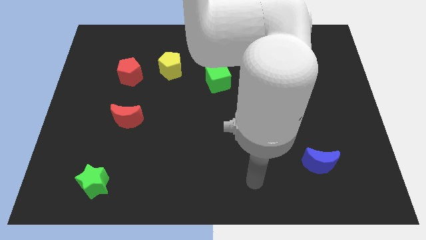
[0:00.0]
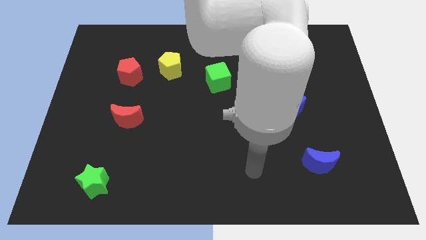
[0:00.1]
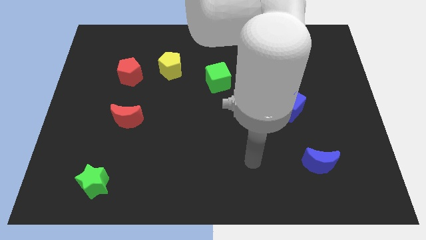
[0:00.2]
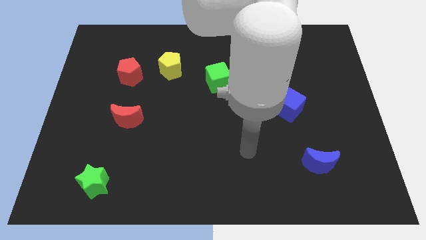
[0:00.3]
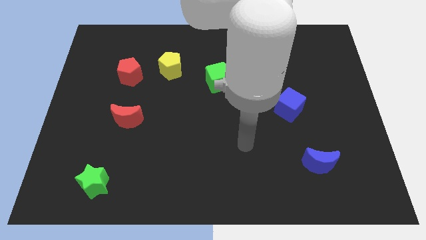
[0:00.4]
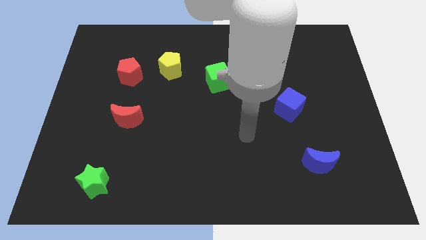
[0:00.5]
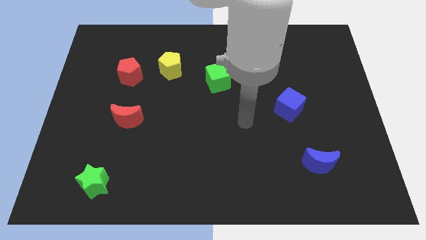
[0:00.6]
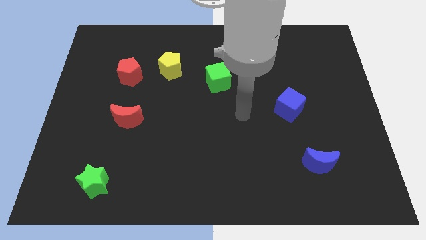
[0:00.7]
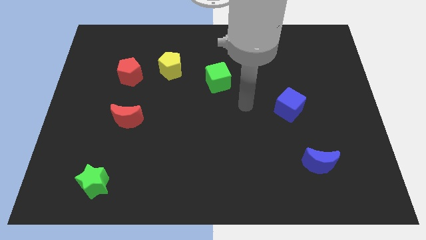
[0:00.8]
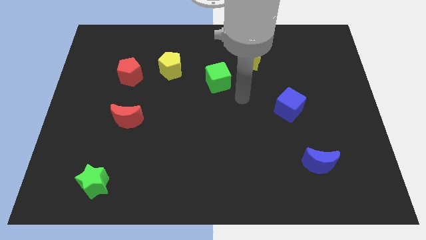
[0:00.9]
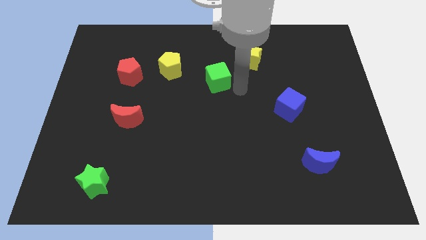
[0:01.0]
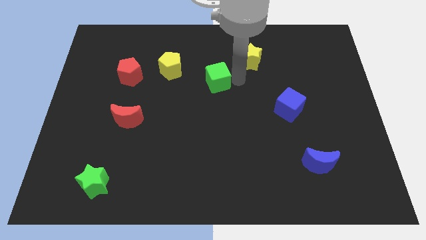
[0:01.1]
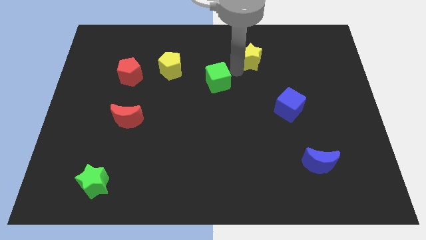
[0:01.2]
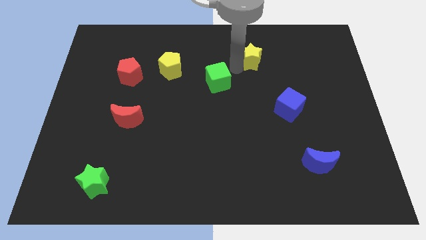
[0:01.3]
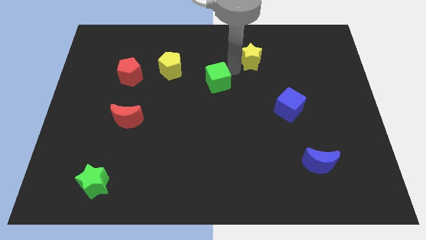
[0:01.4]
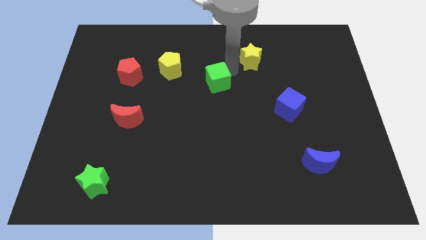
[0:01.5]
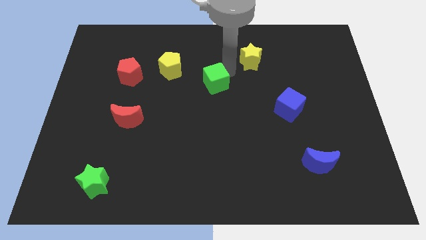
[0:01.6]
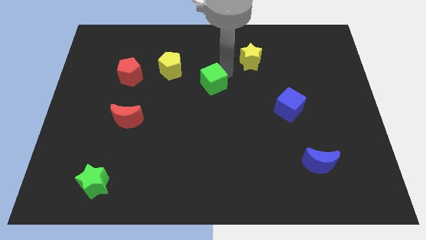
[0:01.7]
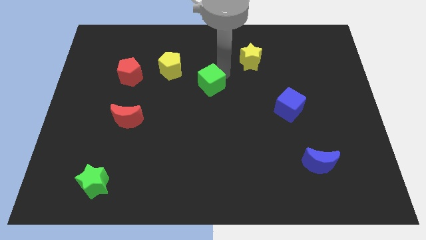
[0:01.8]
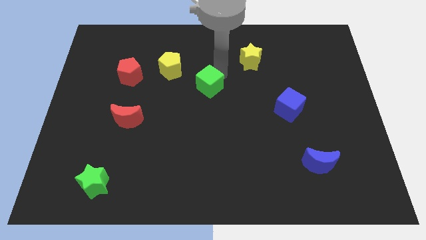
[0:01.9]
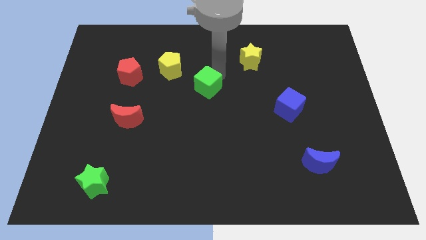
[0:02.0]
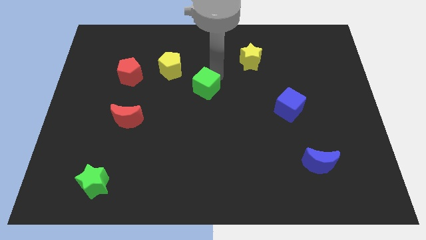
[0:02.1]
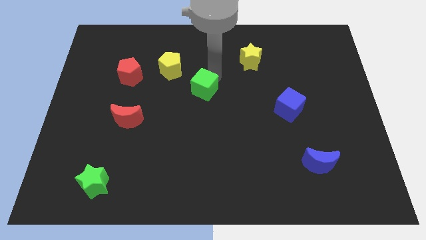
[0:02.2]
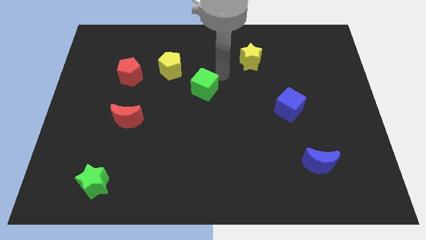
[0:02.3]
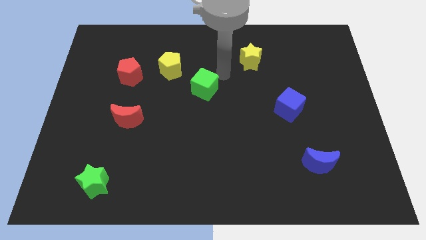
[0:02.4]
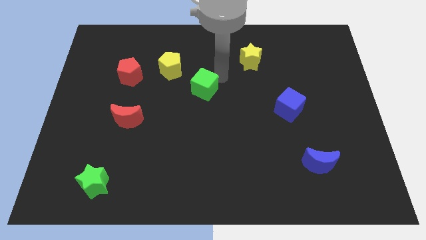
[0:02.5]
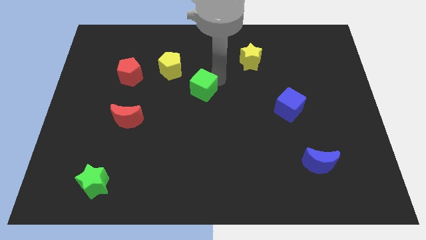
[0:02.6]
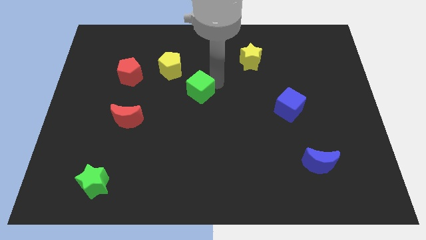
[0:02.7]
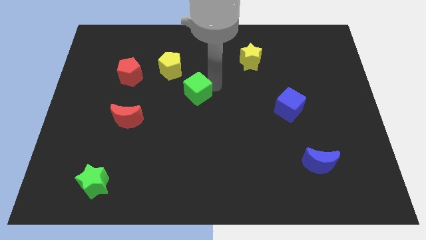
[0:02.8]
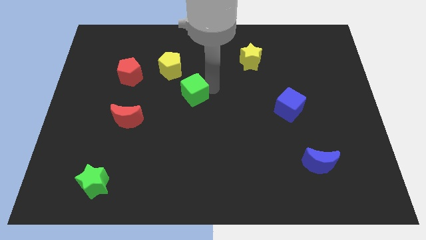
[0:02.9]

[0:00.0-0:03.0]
move the green cube downwards and then to the left slightly

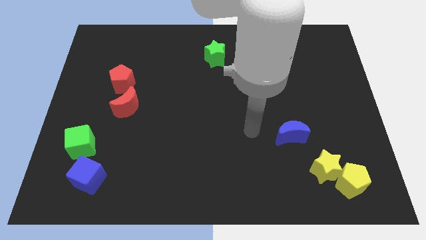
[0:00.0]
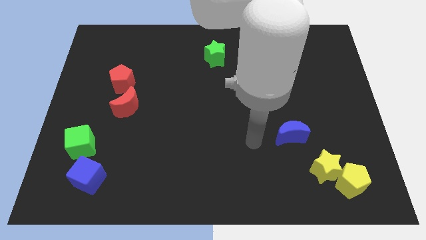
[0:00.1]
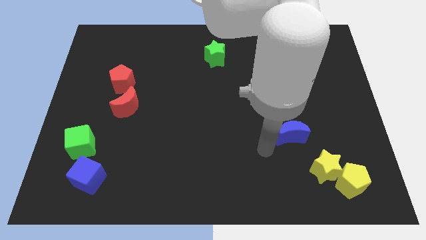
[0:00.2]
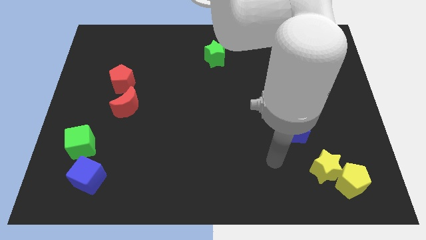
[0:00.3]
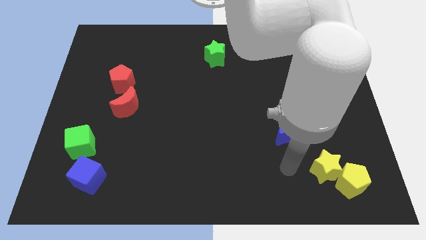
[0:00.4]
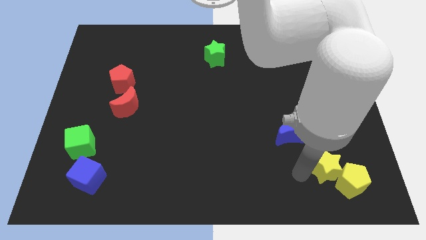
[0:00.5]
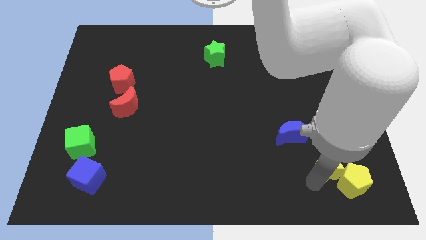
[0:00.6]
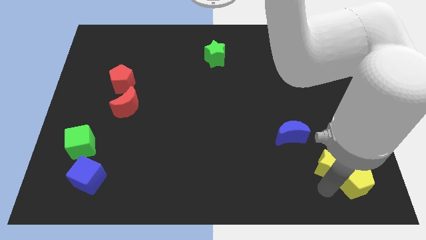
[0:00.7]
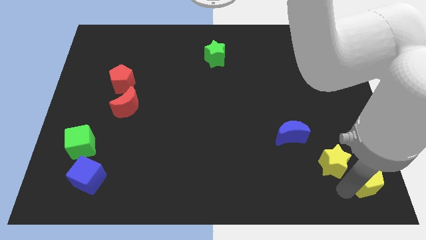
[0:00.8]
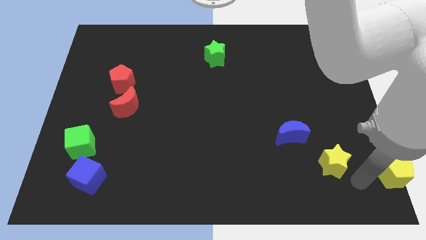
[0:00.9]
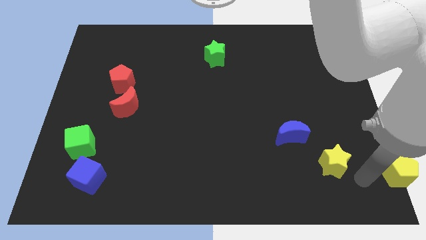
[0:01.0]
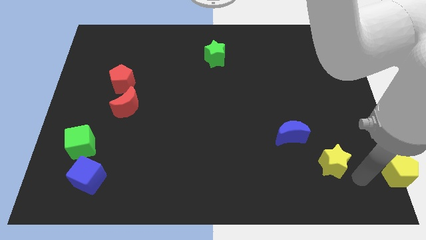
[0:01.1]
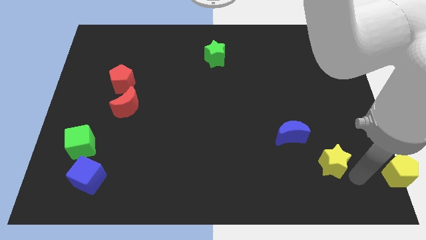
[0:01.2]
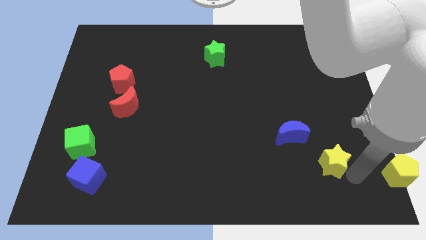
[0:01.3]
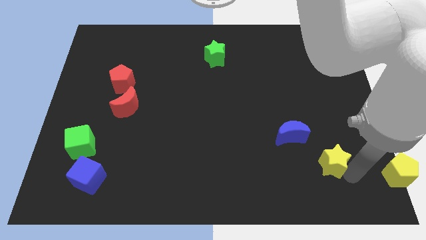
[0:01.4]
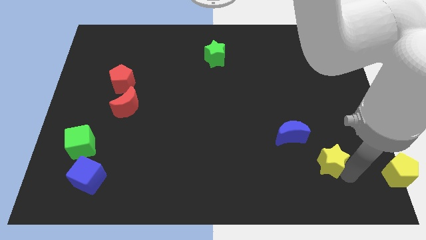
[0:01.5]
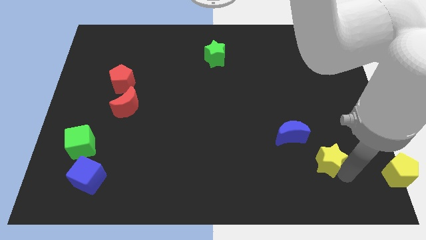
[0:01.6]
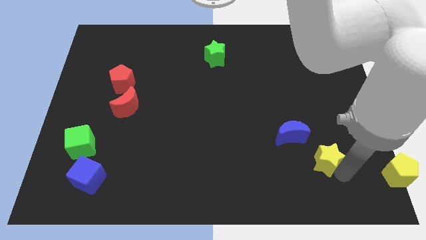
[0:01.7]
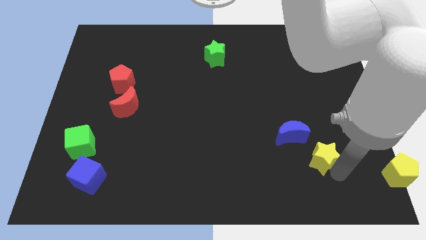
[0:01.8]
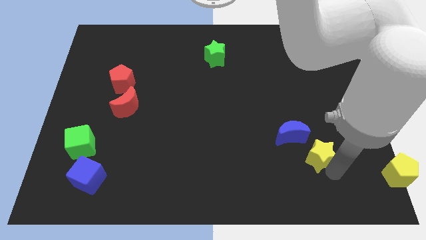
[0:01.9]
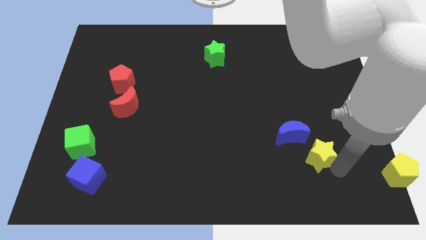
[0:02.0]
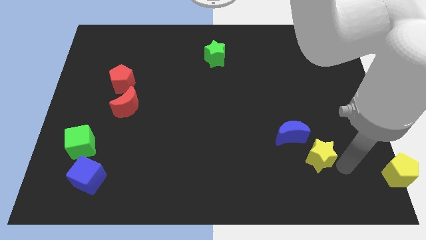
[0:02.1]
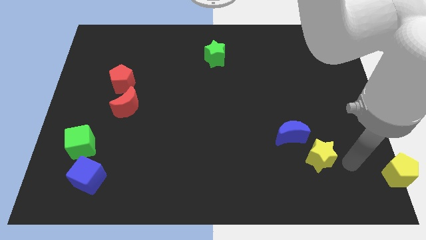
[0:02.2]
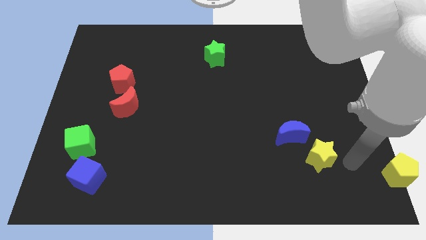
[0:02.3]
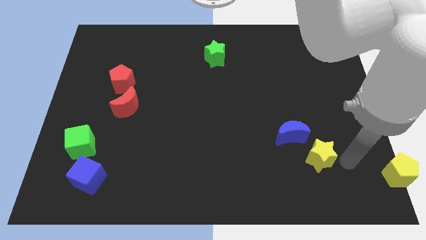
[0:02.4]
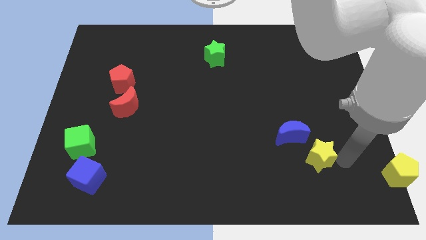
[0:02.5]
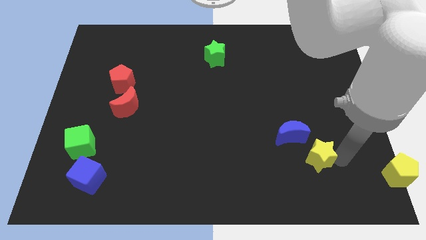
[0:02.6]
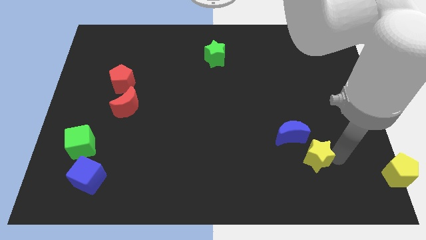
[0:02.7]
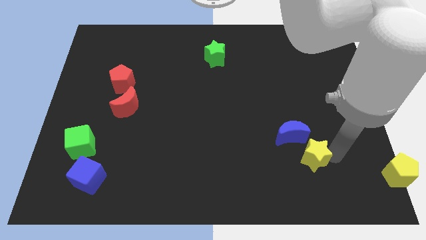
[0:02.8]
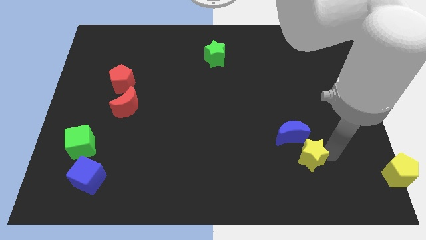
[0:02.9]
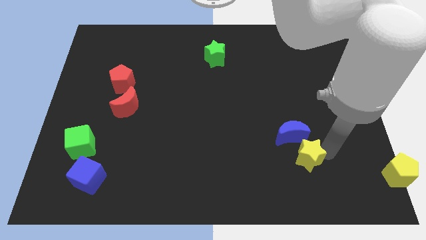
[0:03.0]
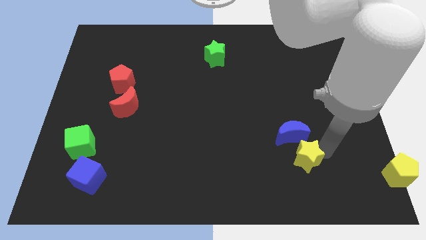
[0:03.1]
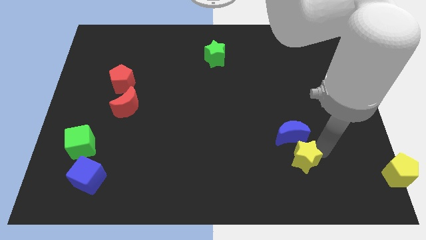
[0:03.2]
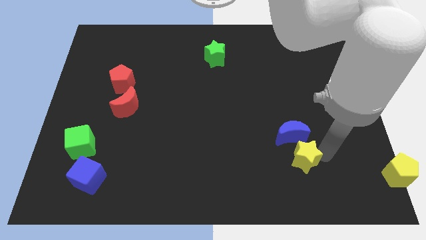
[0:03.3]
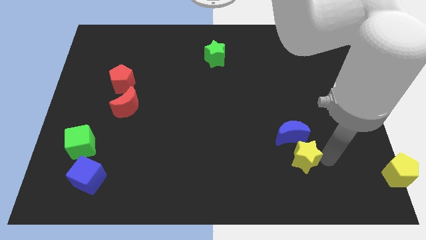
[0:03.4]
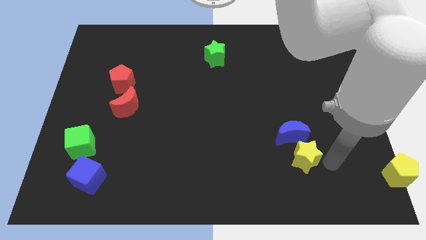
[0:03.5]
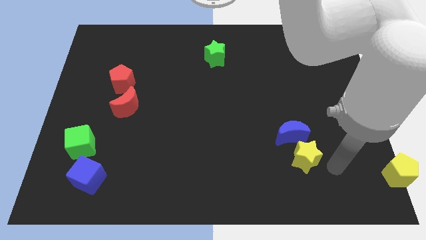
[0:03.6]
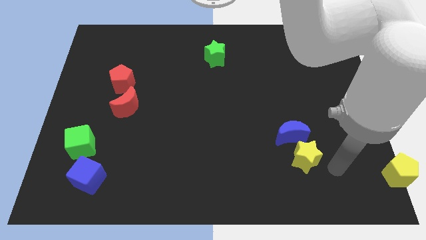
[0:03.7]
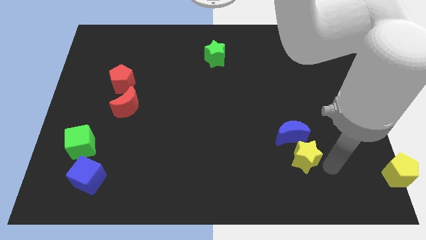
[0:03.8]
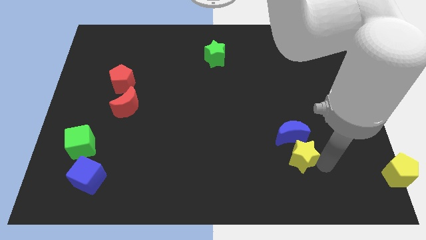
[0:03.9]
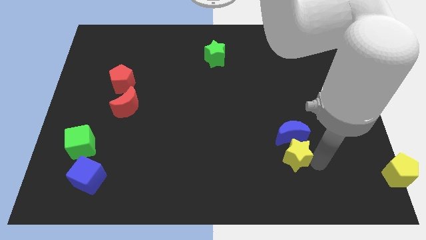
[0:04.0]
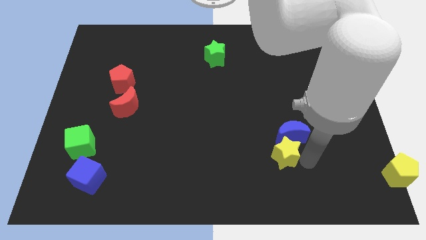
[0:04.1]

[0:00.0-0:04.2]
slightly slide the yellow star upwards and to the left diagonally

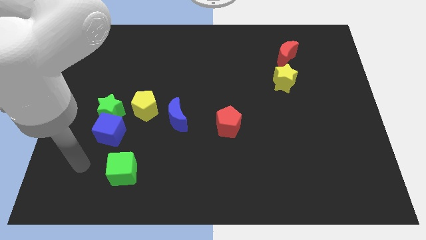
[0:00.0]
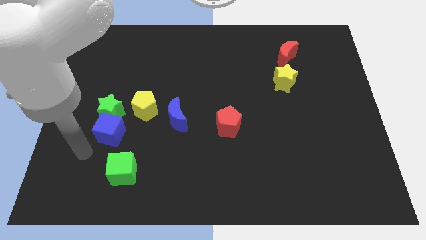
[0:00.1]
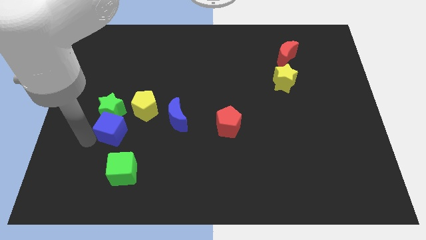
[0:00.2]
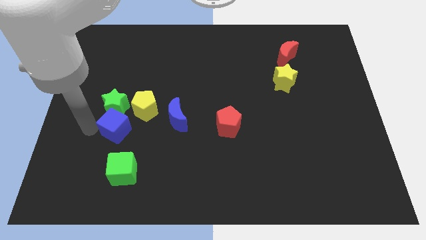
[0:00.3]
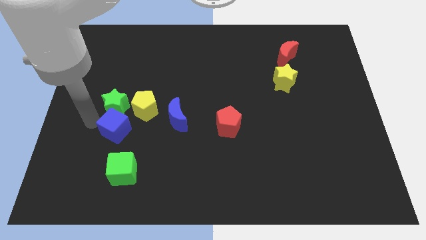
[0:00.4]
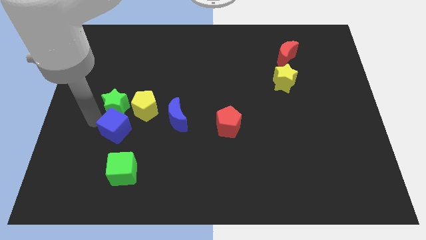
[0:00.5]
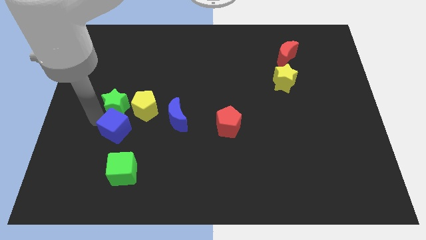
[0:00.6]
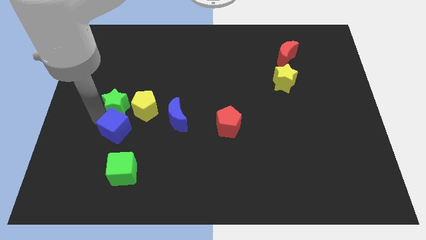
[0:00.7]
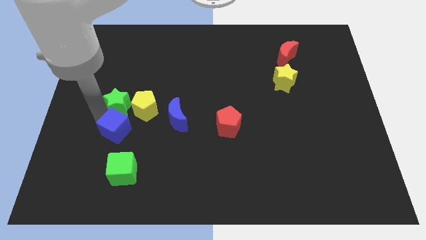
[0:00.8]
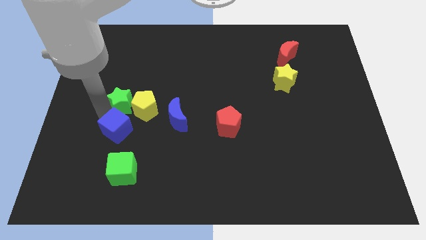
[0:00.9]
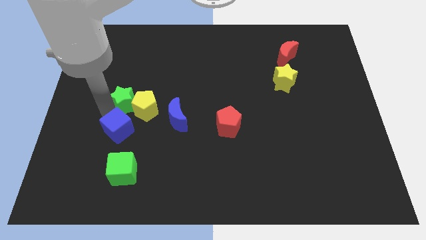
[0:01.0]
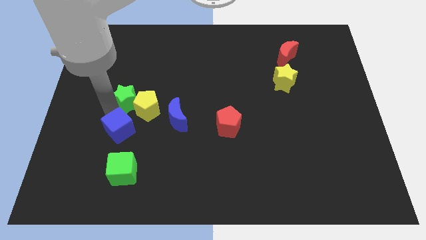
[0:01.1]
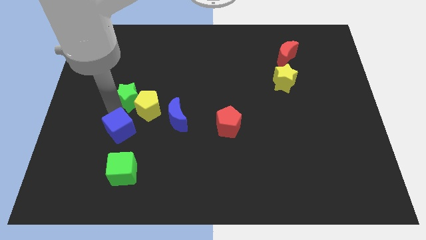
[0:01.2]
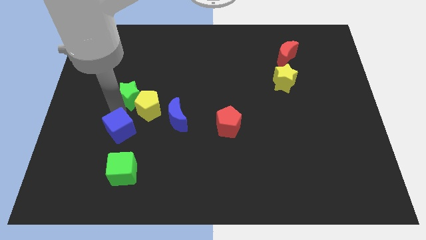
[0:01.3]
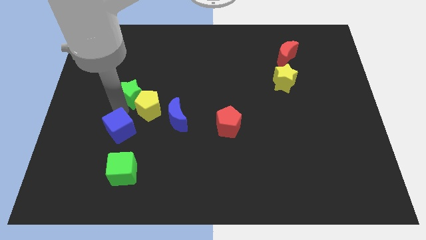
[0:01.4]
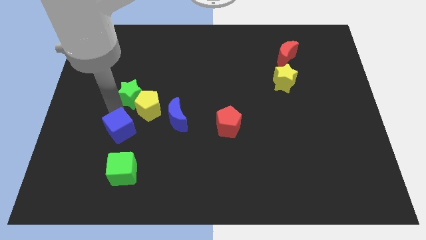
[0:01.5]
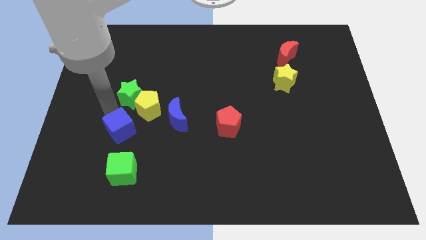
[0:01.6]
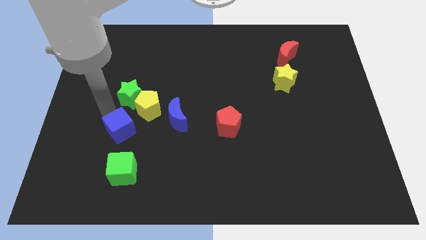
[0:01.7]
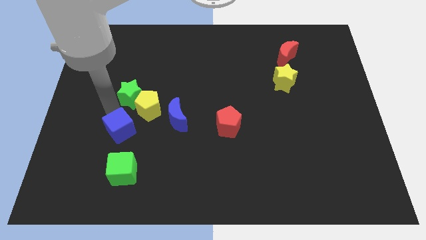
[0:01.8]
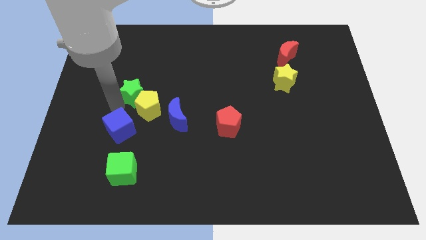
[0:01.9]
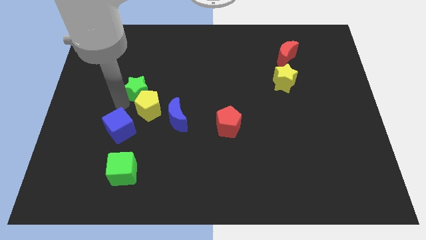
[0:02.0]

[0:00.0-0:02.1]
slightly move the green star up and then to the right
